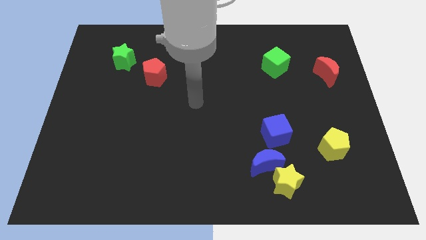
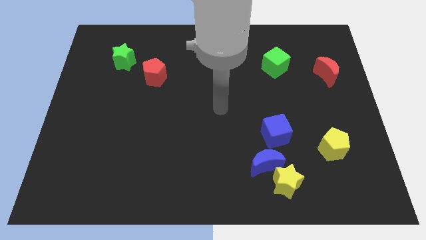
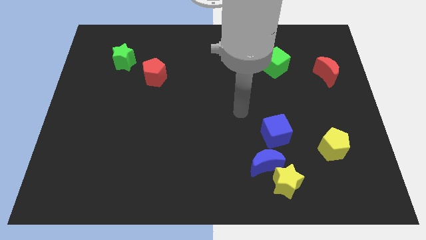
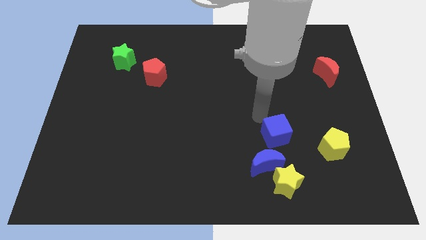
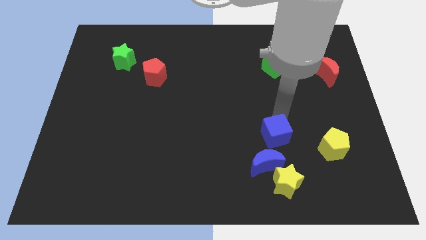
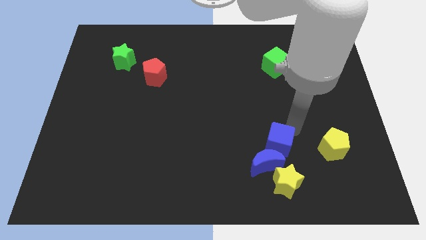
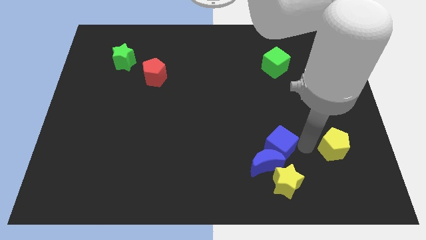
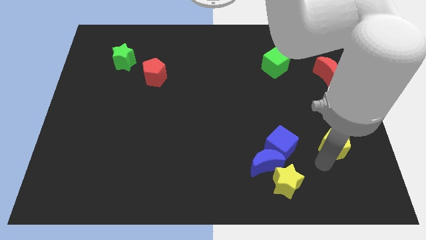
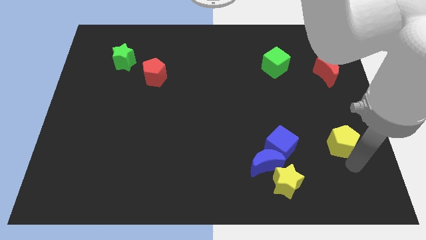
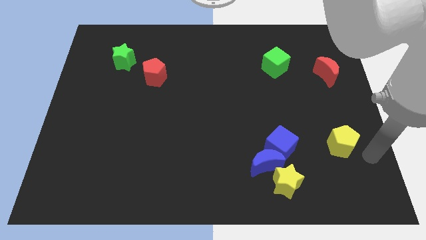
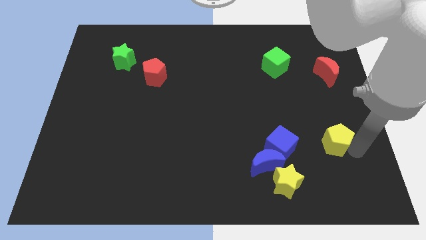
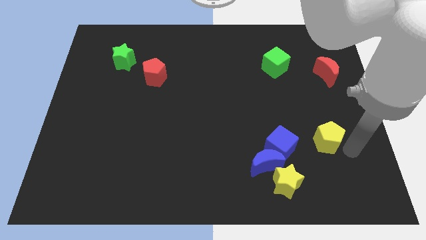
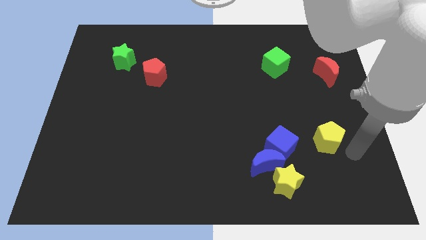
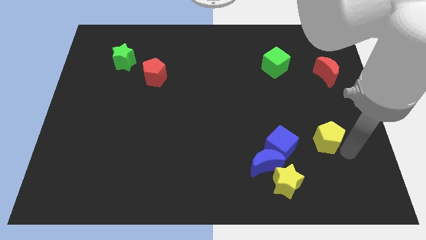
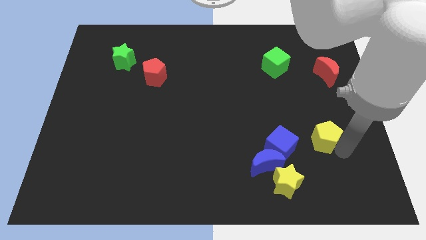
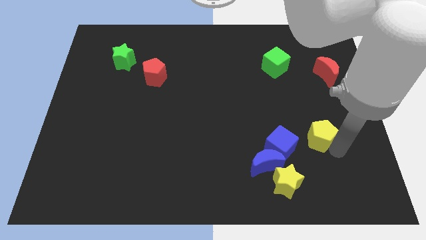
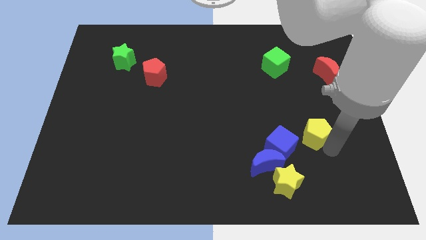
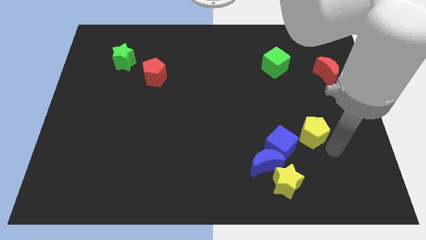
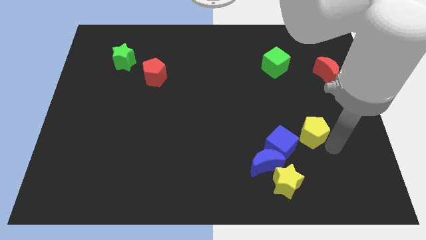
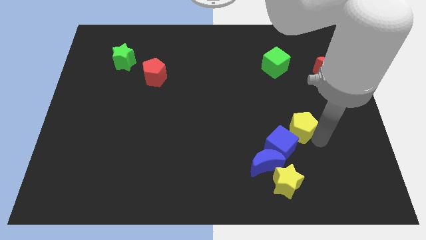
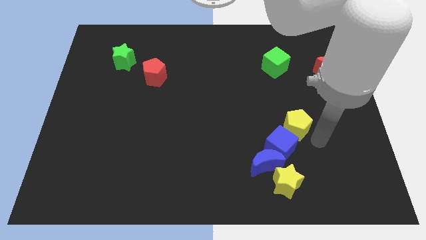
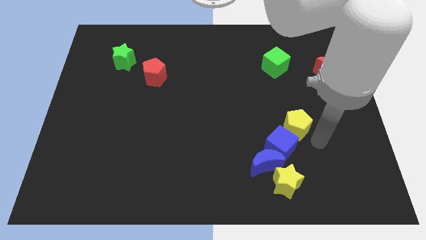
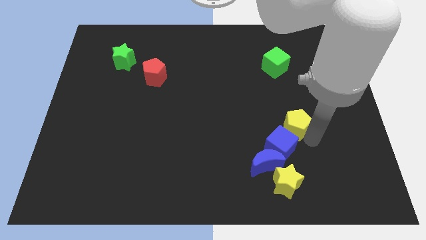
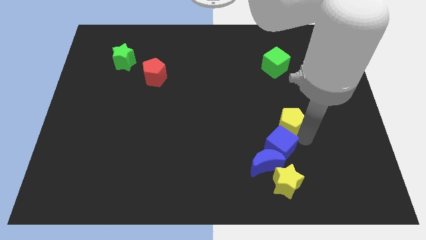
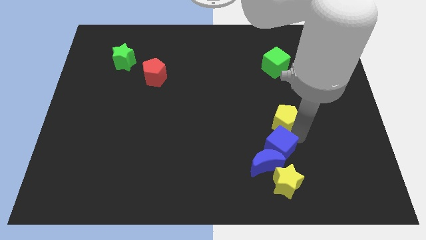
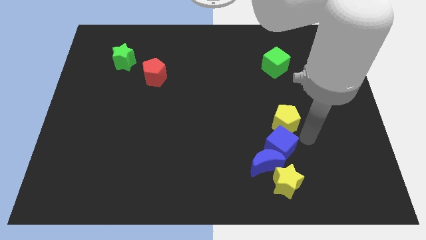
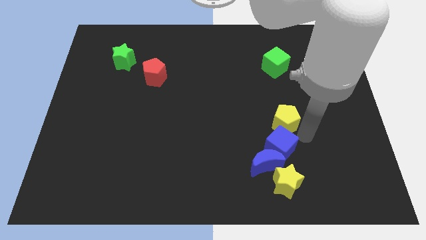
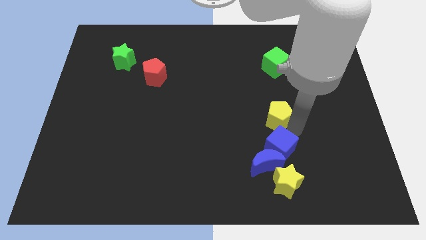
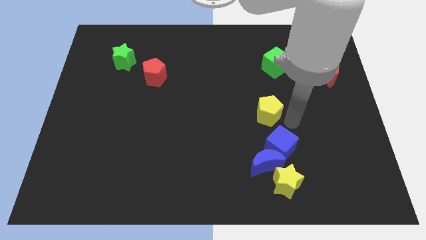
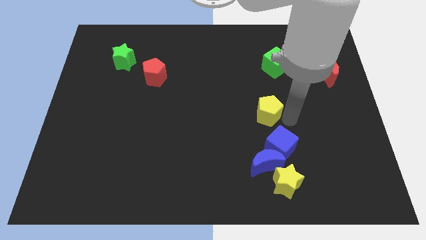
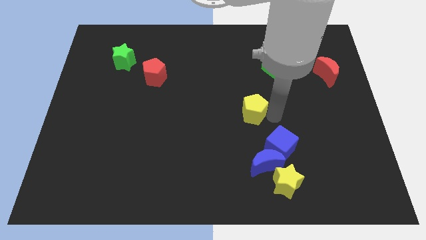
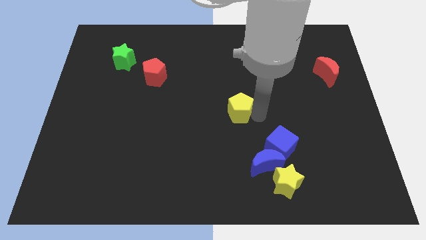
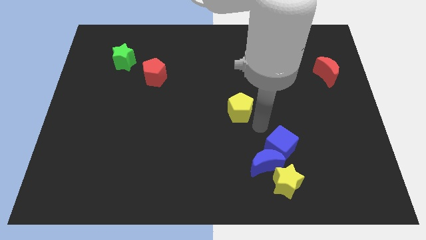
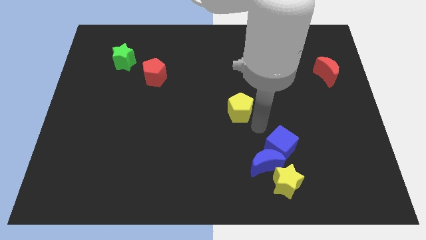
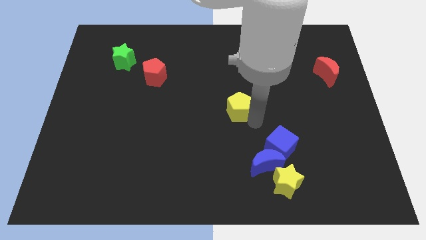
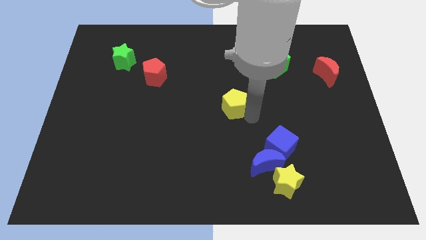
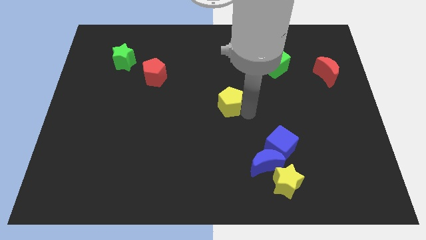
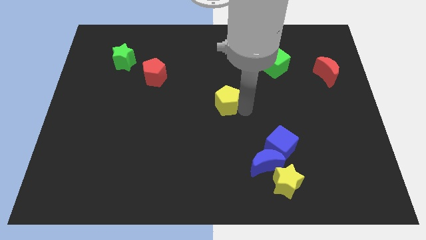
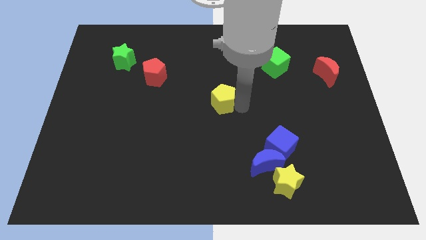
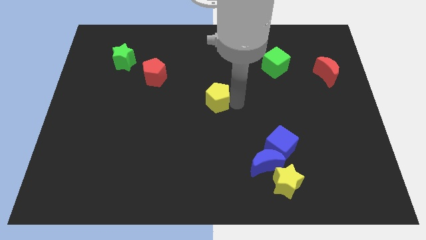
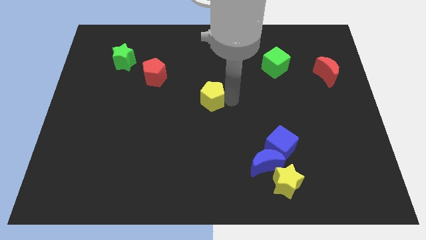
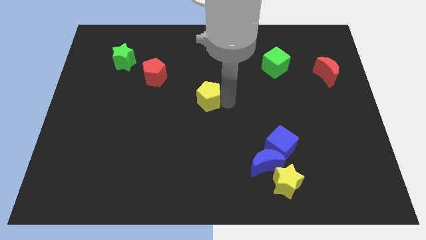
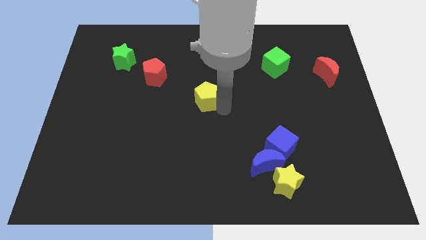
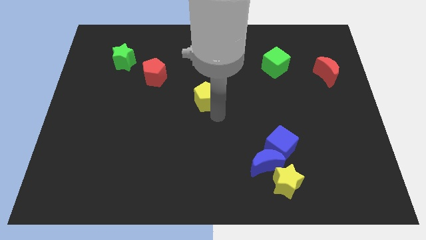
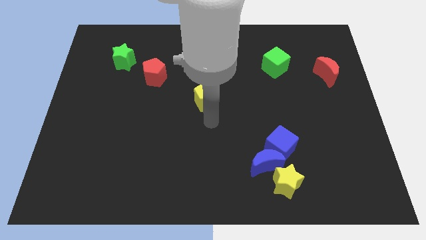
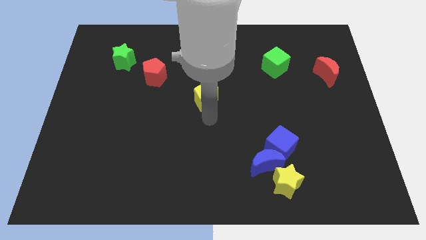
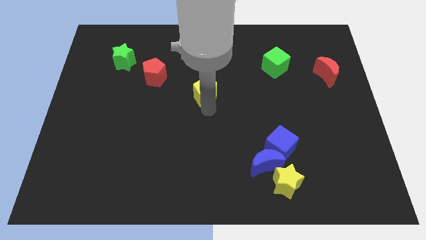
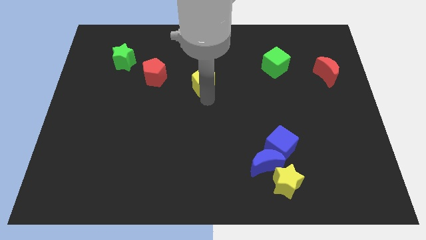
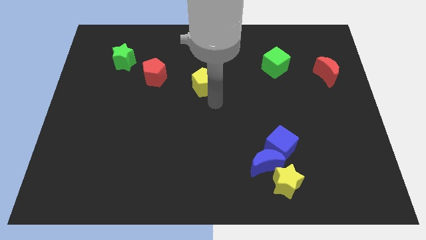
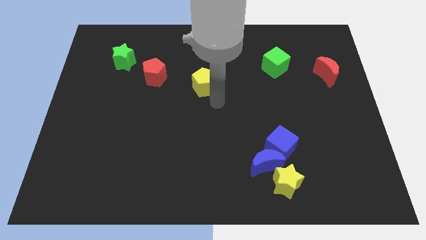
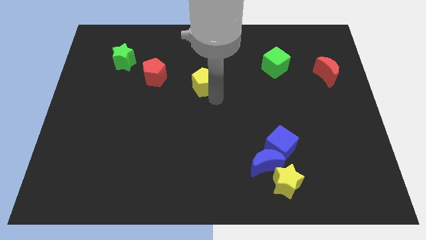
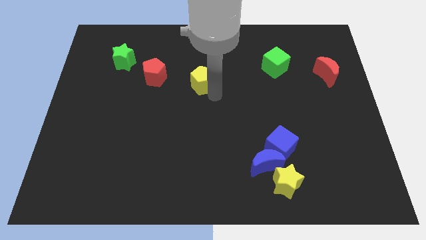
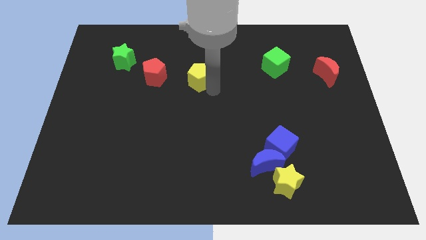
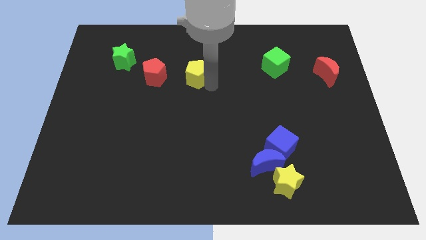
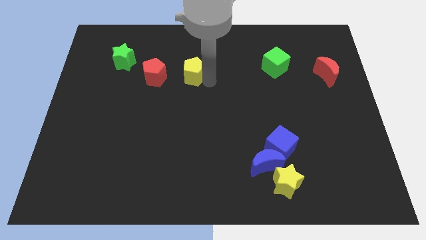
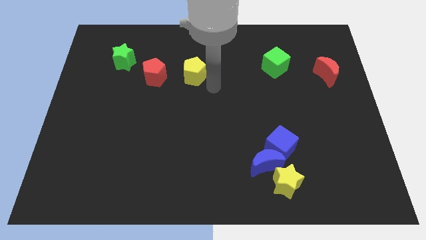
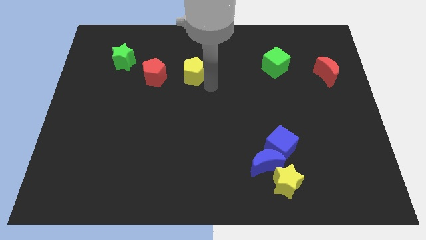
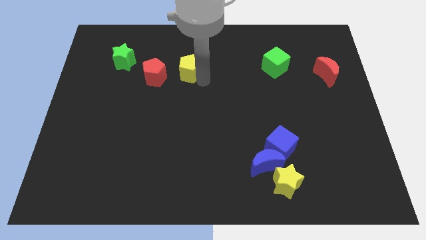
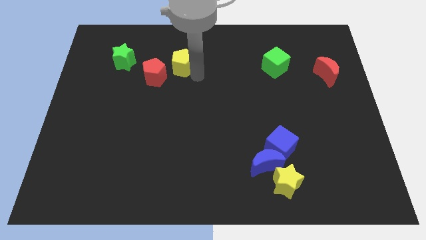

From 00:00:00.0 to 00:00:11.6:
put the yellow pentagon to the right side of the green star

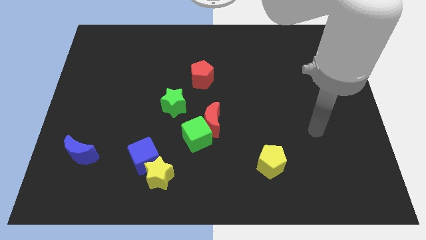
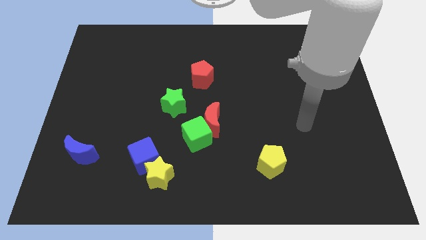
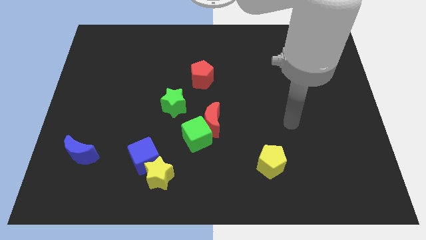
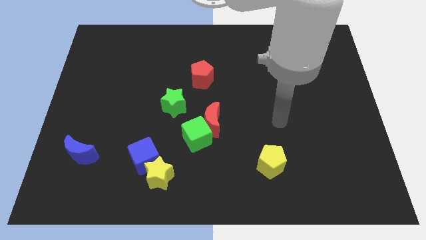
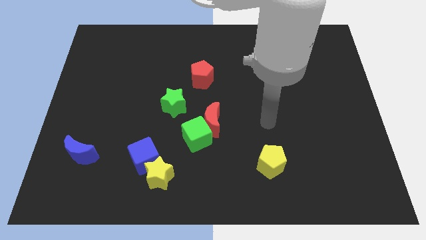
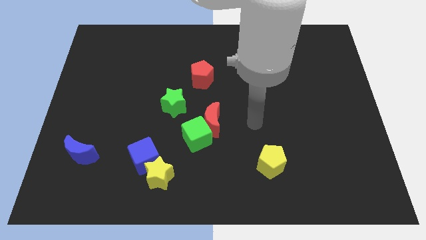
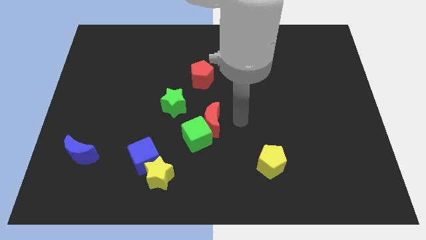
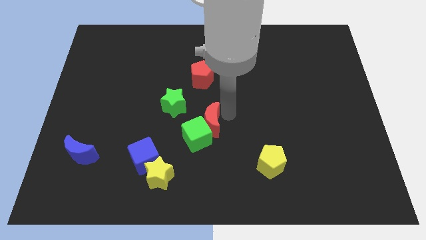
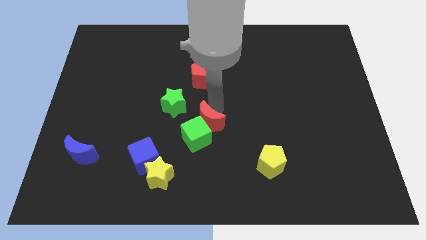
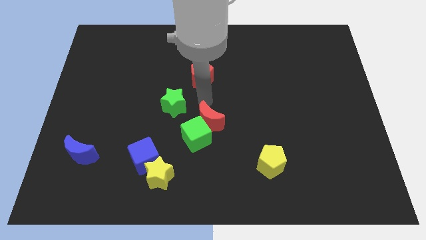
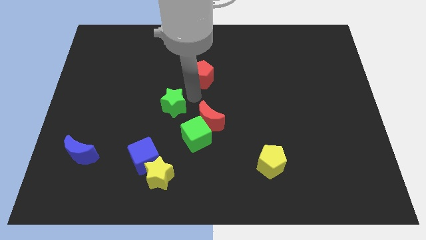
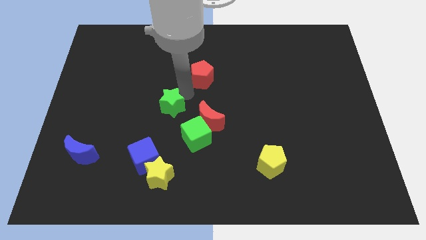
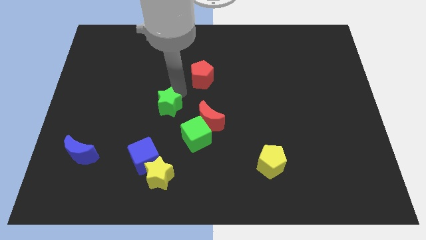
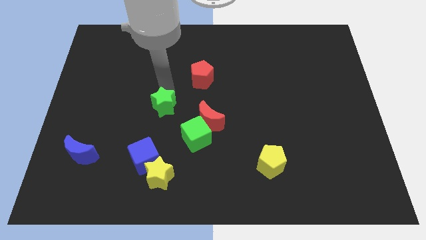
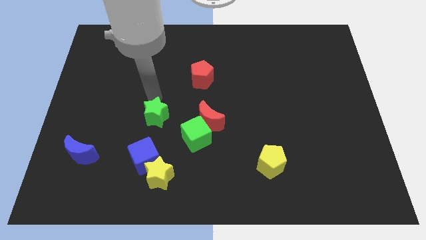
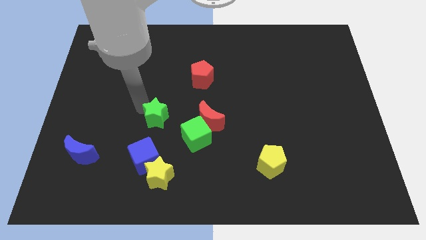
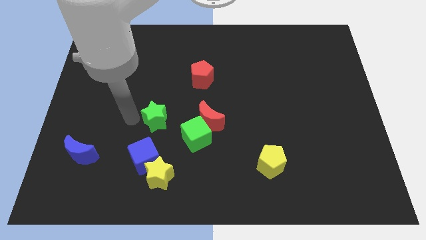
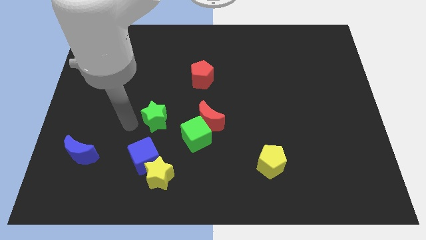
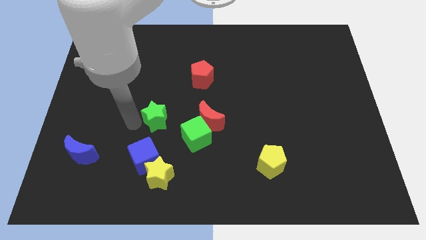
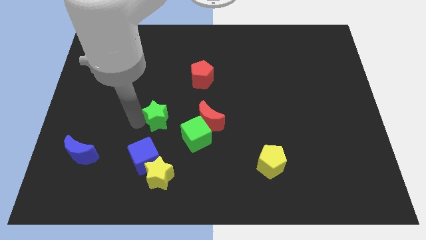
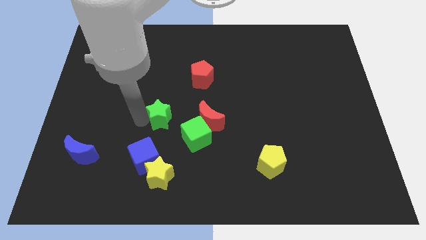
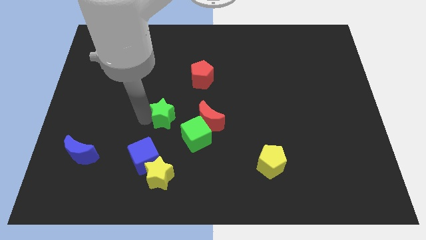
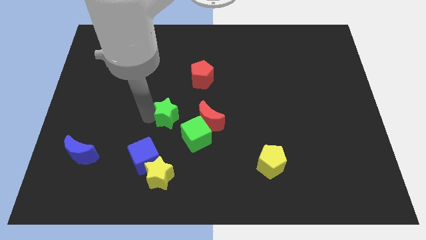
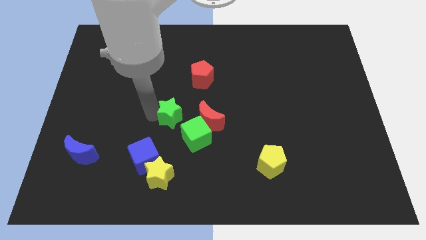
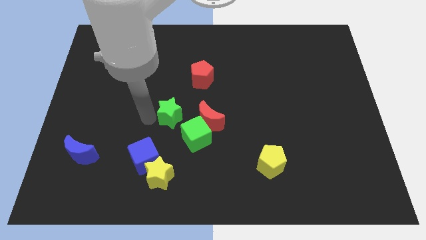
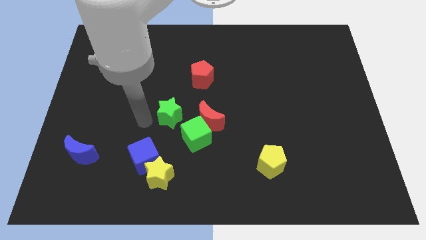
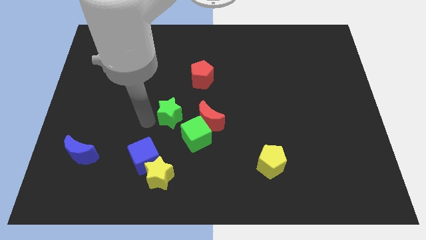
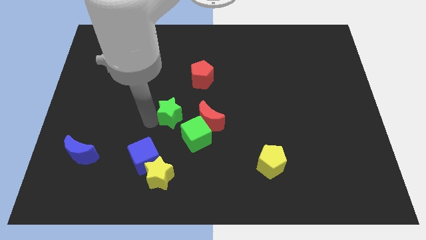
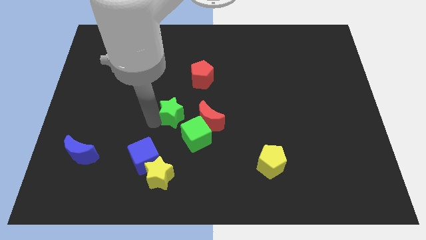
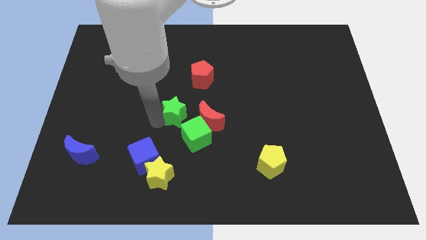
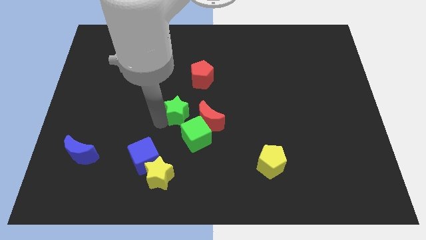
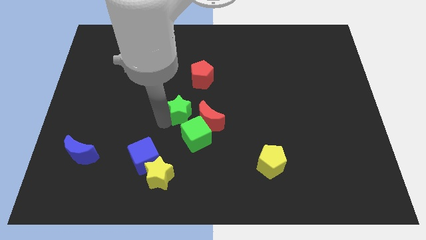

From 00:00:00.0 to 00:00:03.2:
put the green star to the bottom side of the red pentagon
